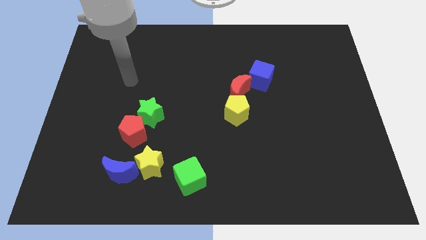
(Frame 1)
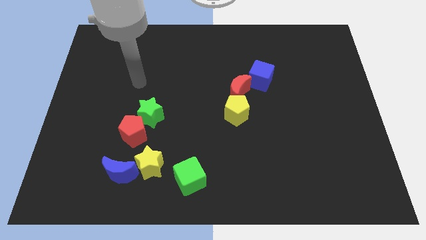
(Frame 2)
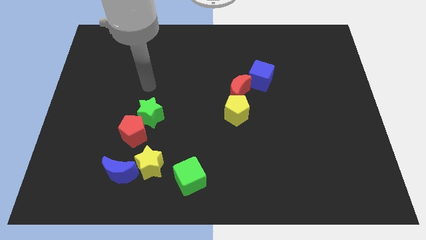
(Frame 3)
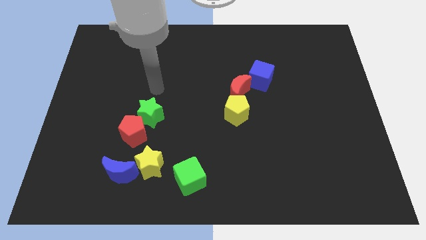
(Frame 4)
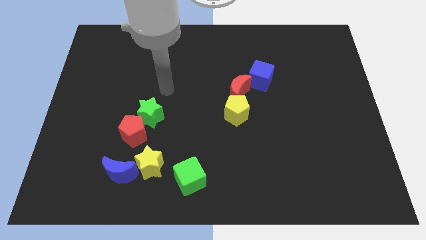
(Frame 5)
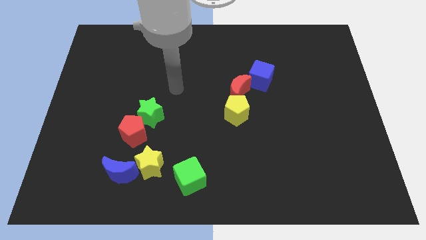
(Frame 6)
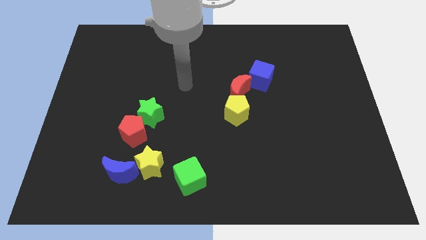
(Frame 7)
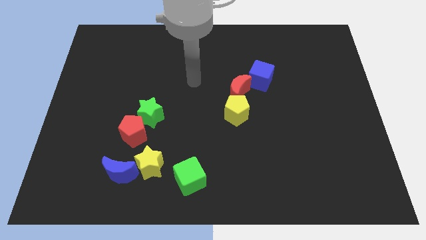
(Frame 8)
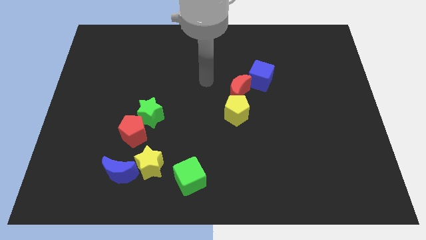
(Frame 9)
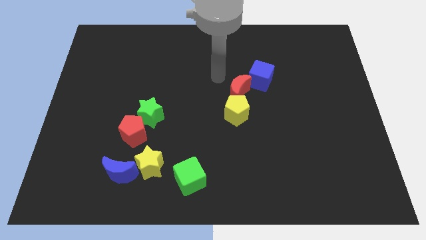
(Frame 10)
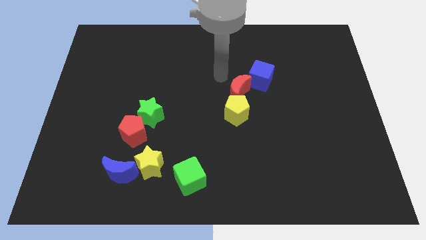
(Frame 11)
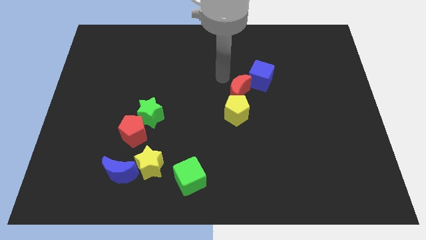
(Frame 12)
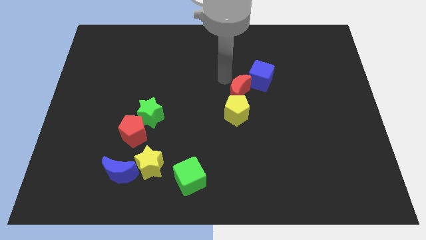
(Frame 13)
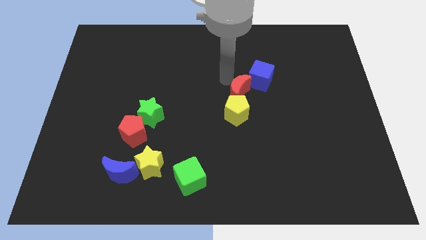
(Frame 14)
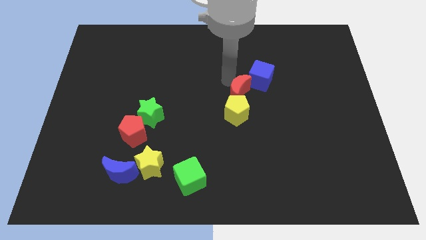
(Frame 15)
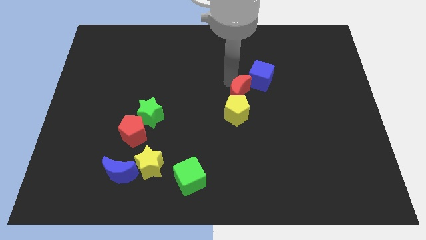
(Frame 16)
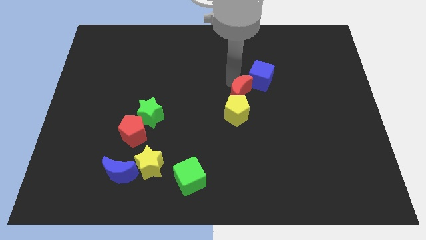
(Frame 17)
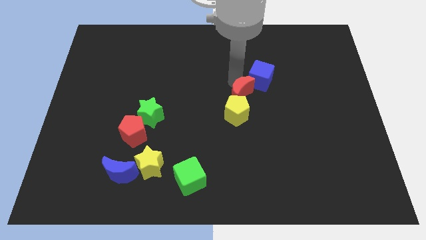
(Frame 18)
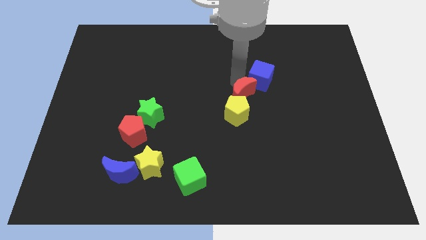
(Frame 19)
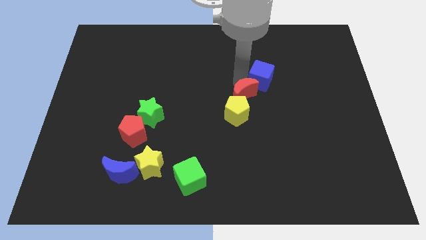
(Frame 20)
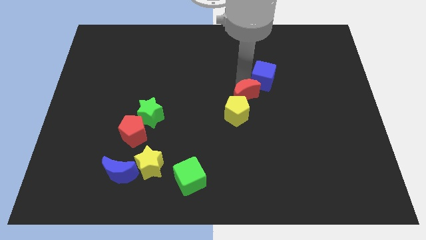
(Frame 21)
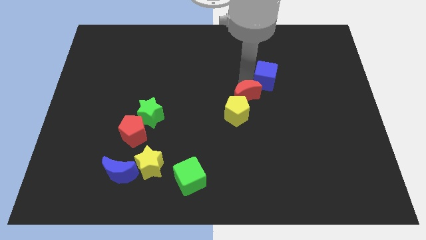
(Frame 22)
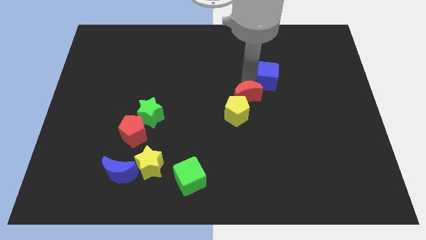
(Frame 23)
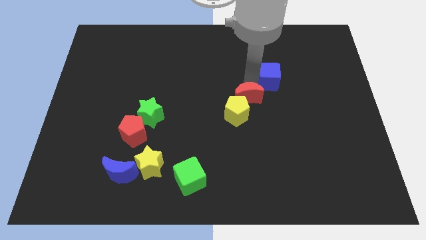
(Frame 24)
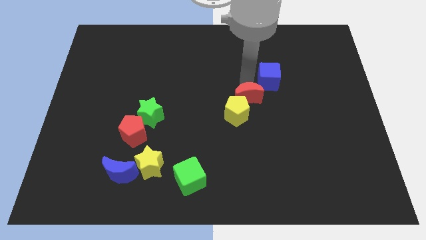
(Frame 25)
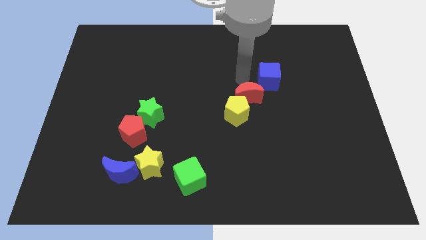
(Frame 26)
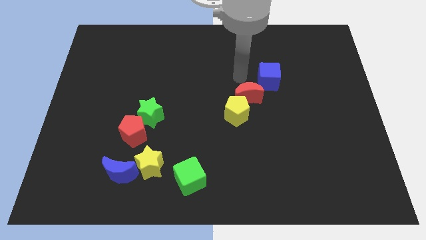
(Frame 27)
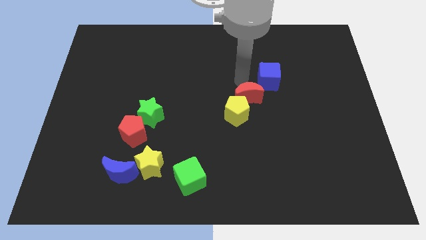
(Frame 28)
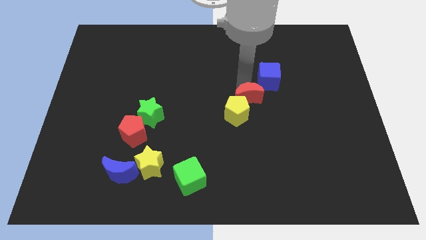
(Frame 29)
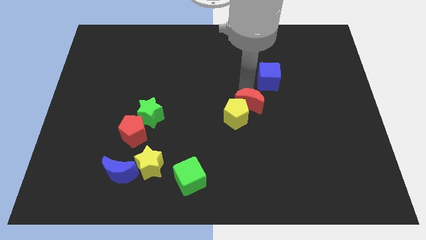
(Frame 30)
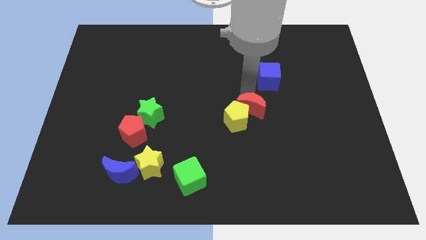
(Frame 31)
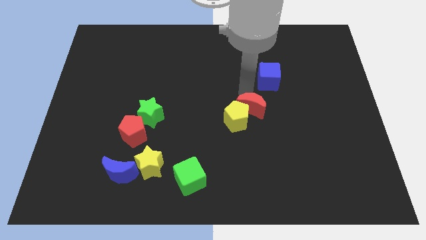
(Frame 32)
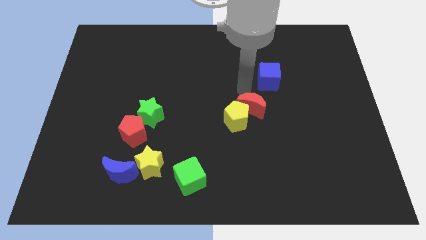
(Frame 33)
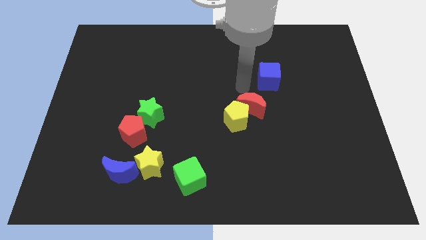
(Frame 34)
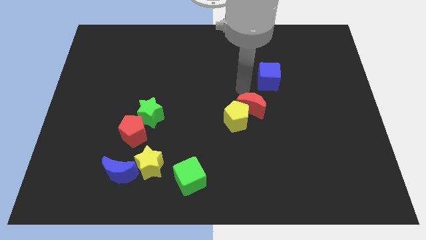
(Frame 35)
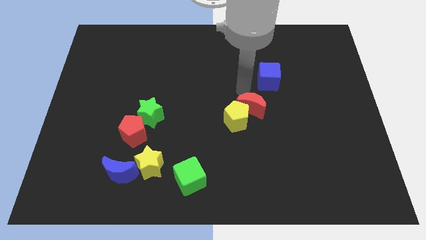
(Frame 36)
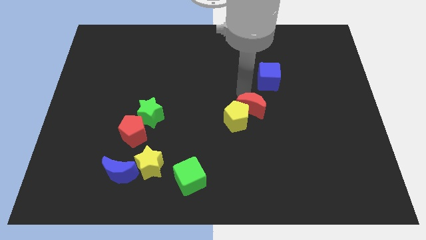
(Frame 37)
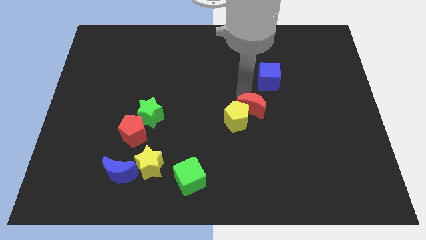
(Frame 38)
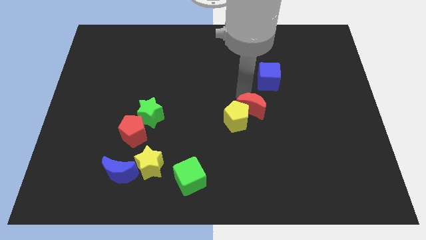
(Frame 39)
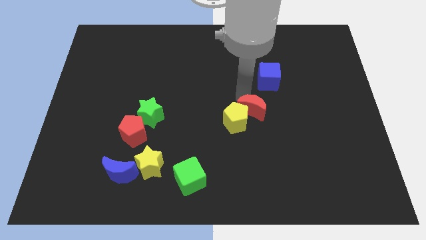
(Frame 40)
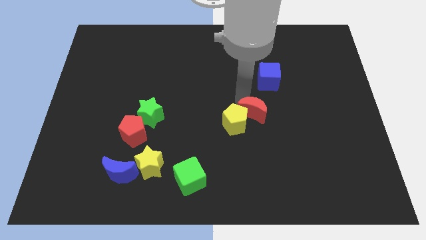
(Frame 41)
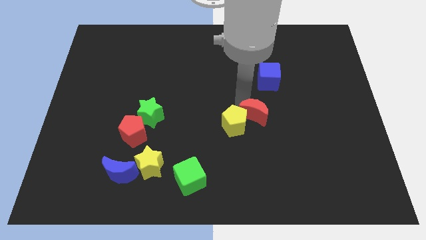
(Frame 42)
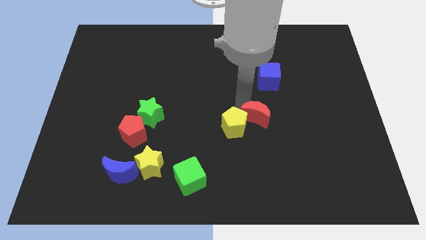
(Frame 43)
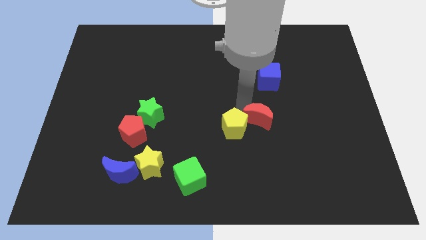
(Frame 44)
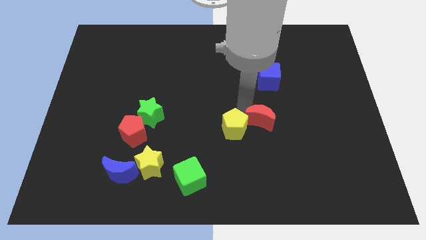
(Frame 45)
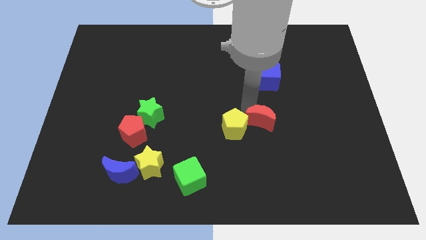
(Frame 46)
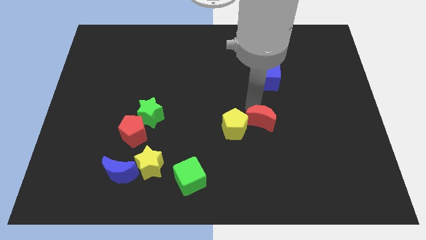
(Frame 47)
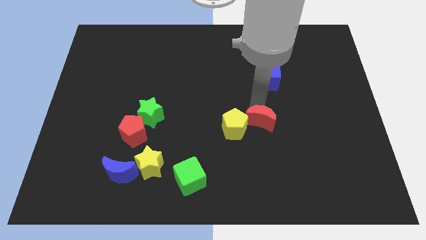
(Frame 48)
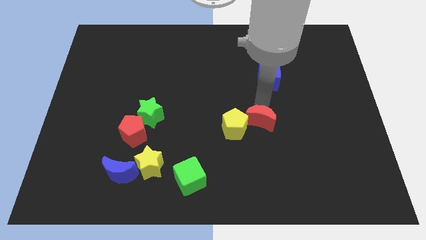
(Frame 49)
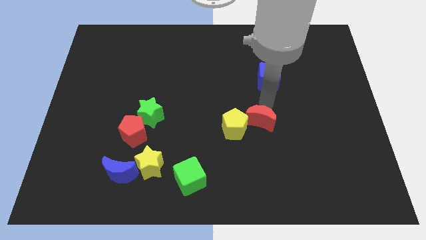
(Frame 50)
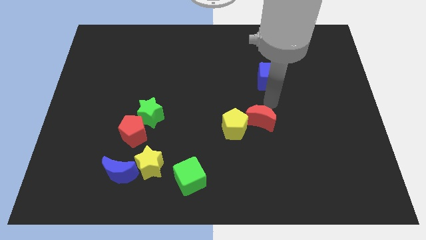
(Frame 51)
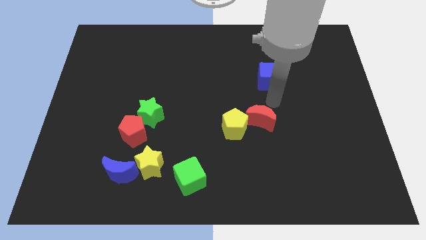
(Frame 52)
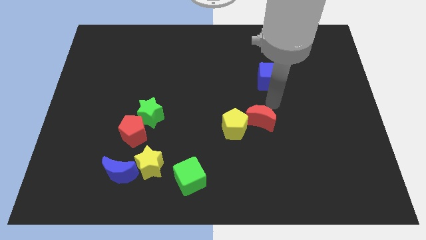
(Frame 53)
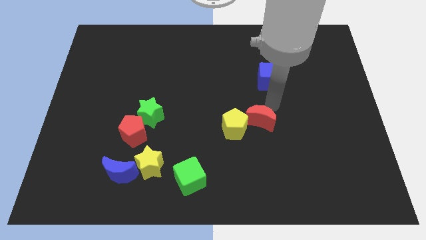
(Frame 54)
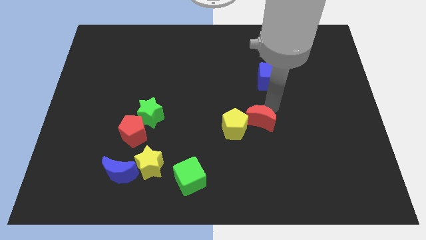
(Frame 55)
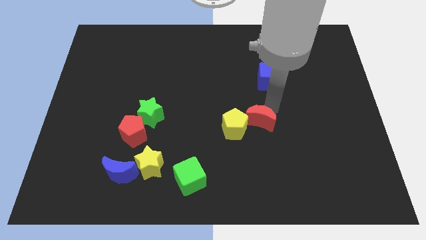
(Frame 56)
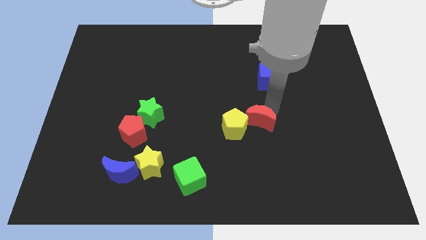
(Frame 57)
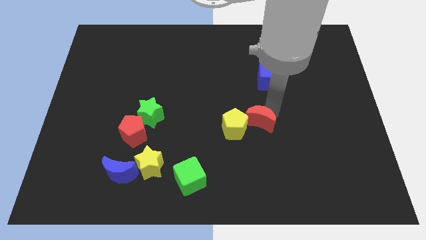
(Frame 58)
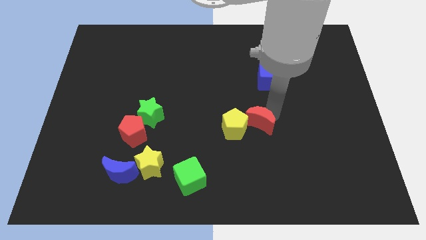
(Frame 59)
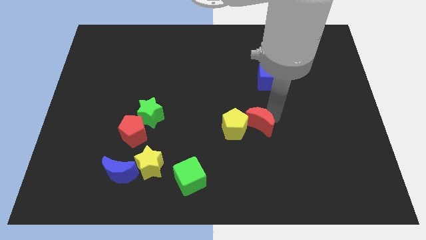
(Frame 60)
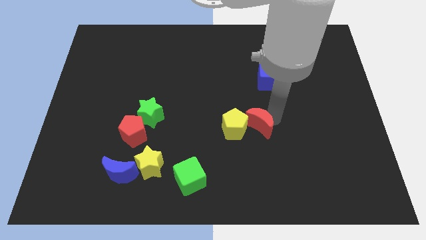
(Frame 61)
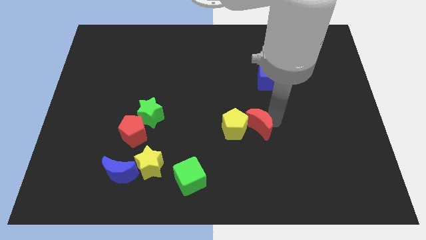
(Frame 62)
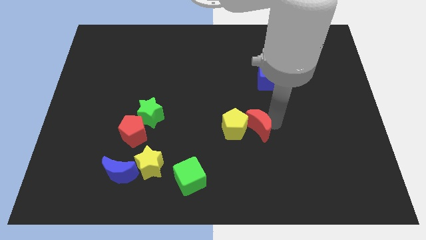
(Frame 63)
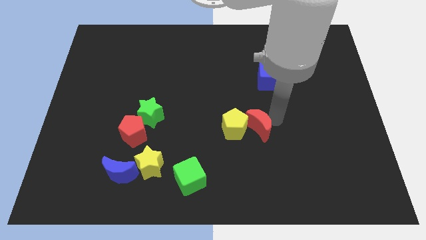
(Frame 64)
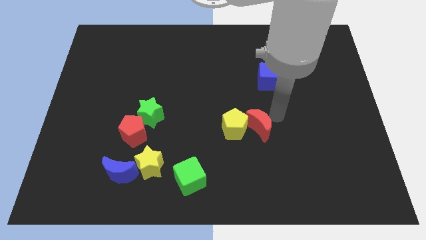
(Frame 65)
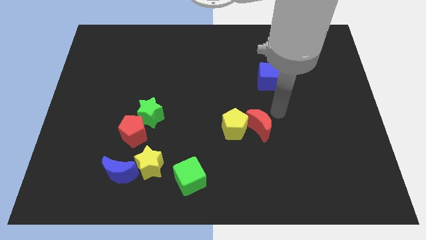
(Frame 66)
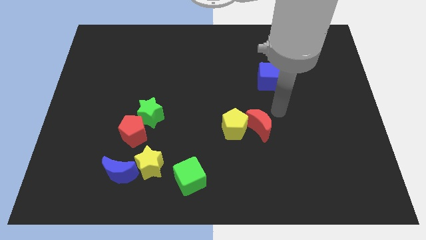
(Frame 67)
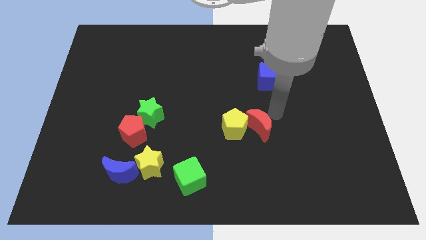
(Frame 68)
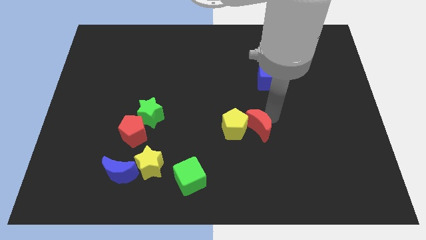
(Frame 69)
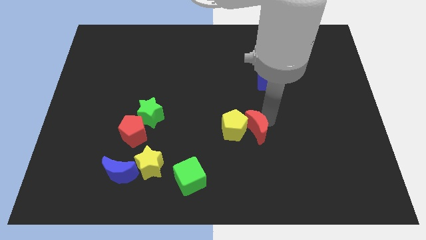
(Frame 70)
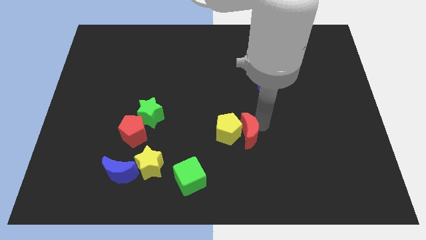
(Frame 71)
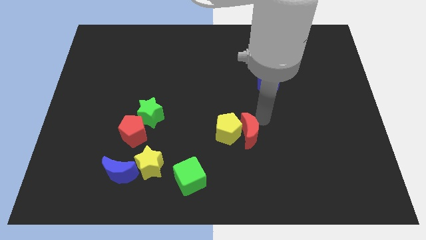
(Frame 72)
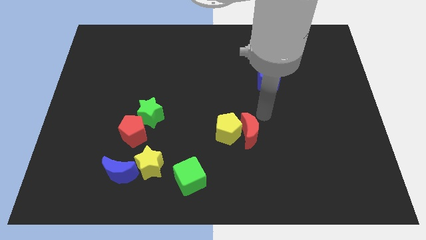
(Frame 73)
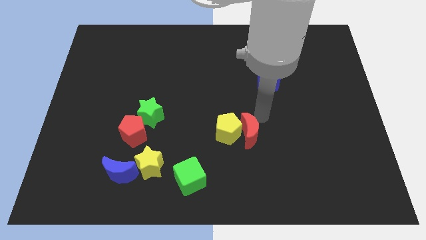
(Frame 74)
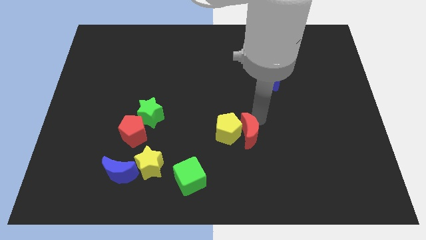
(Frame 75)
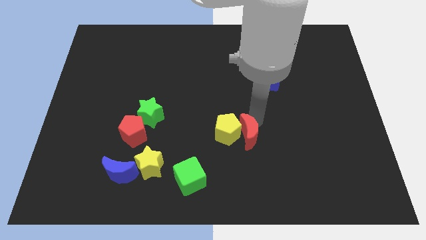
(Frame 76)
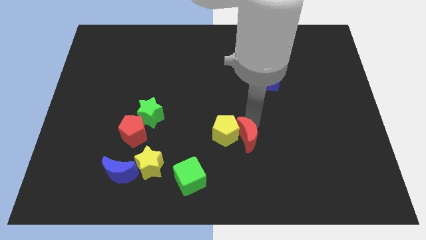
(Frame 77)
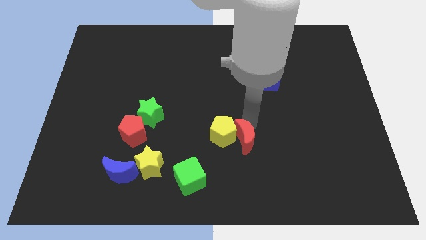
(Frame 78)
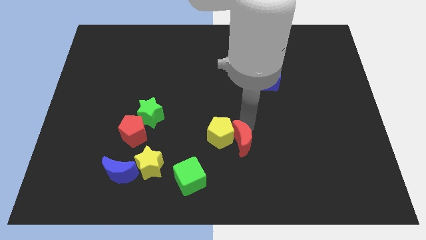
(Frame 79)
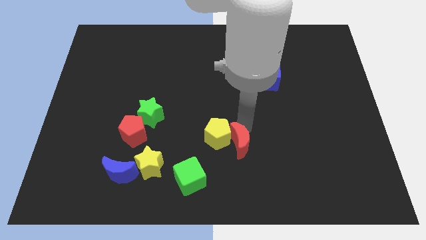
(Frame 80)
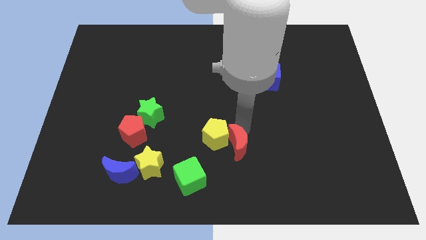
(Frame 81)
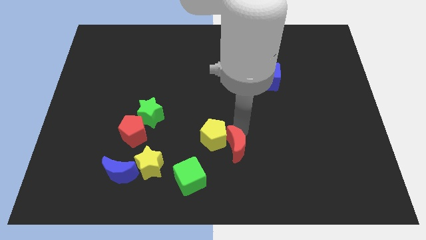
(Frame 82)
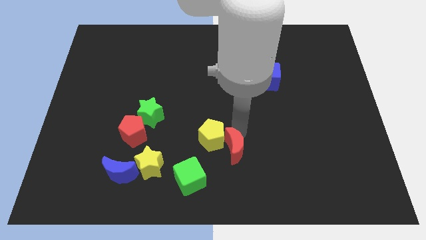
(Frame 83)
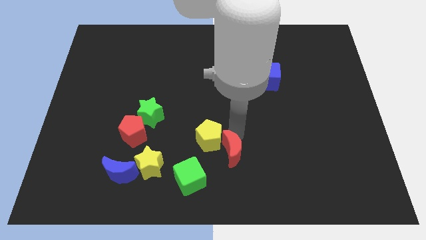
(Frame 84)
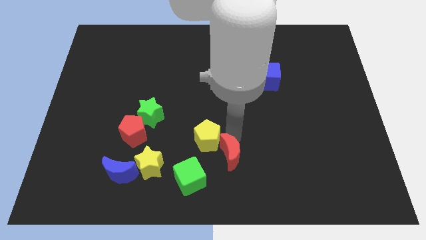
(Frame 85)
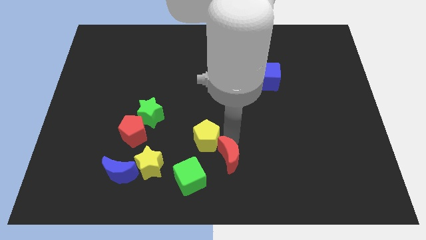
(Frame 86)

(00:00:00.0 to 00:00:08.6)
put the red moon to the bottom
